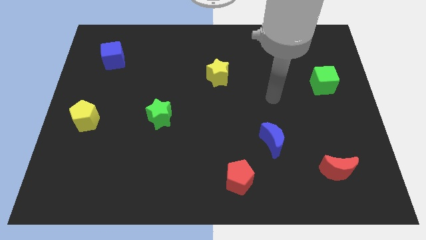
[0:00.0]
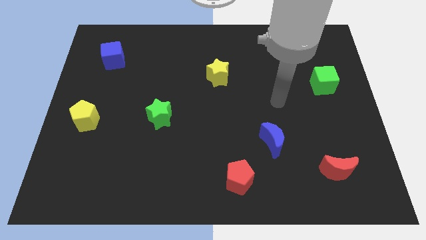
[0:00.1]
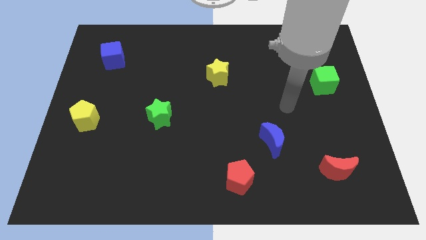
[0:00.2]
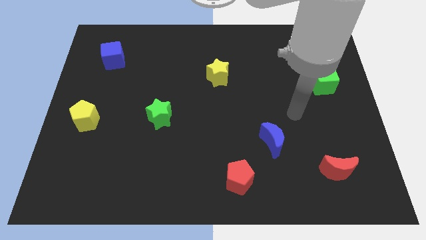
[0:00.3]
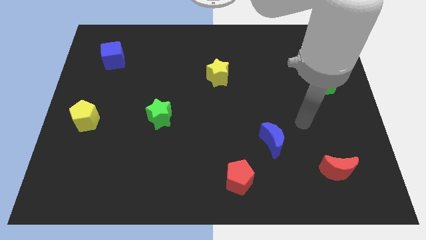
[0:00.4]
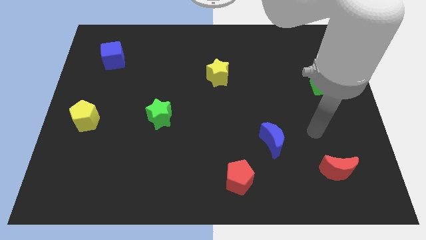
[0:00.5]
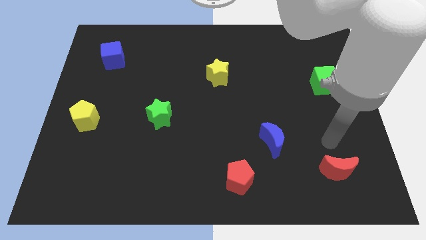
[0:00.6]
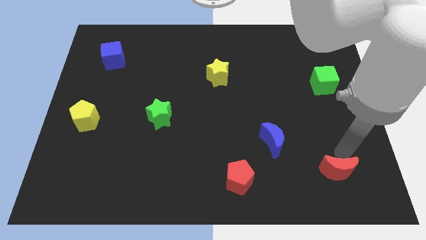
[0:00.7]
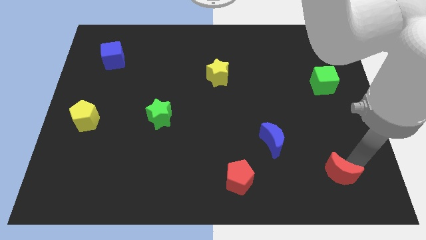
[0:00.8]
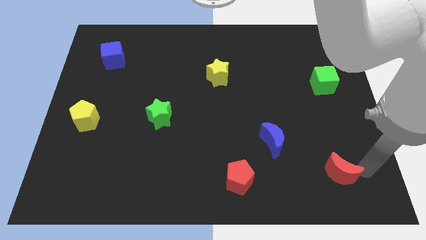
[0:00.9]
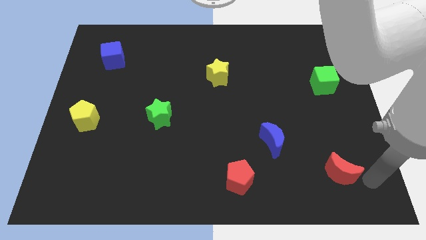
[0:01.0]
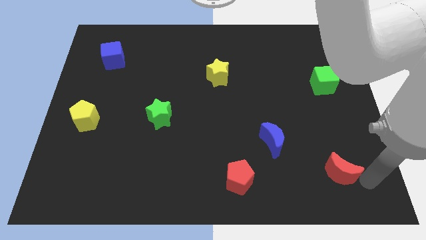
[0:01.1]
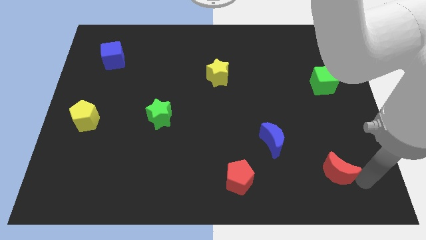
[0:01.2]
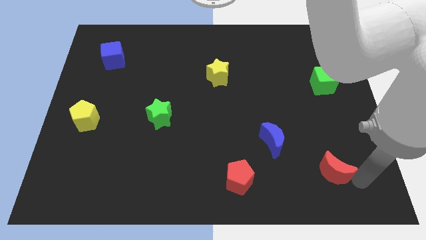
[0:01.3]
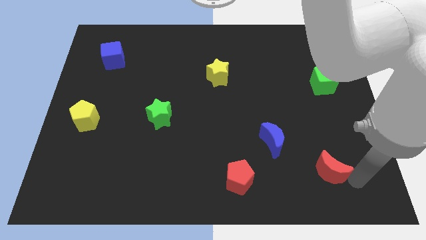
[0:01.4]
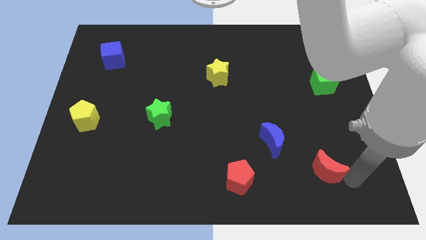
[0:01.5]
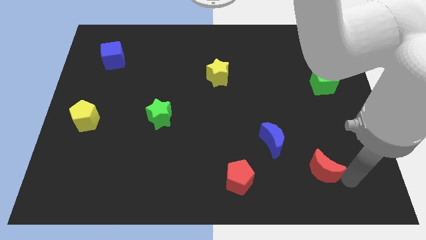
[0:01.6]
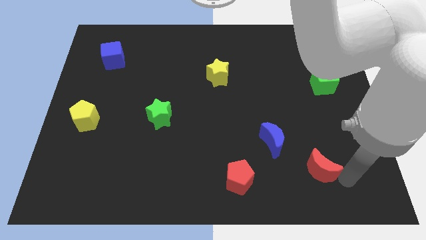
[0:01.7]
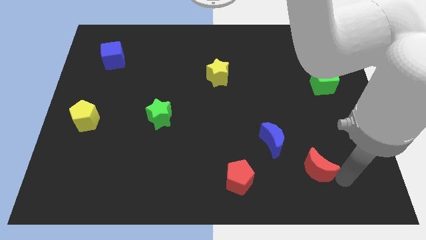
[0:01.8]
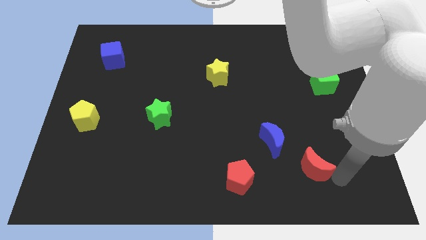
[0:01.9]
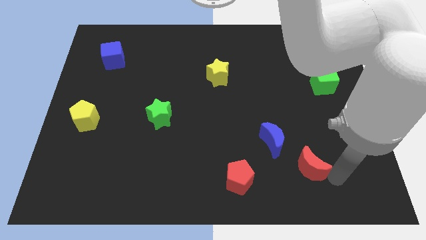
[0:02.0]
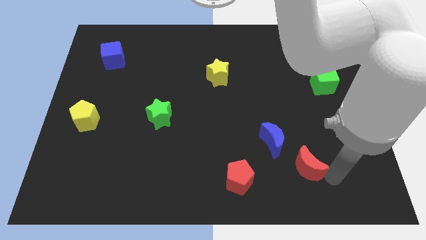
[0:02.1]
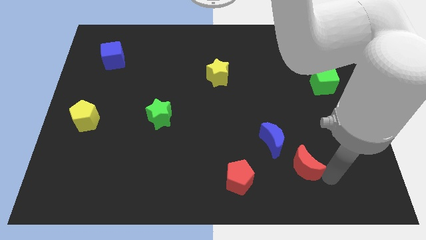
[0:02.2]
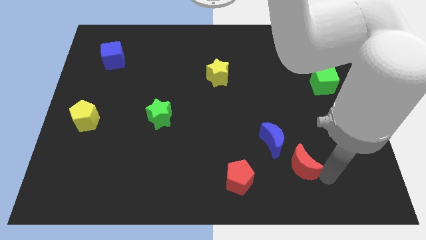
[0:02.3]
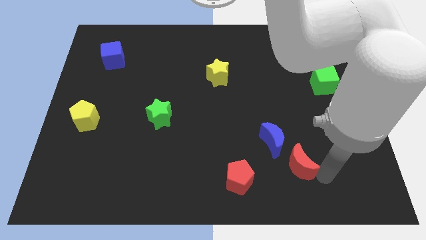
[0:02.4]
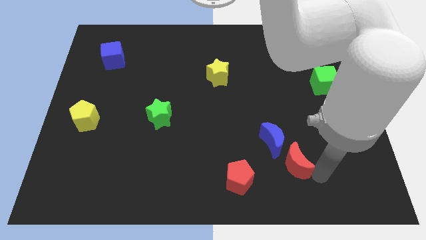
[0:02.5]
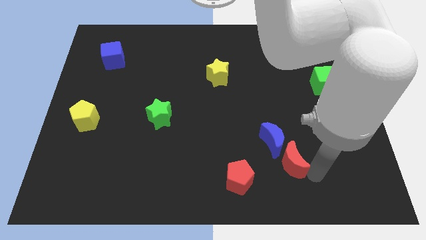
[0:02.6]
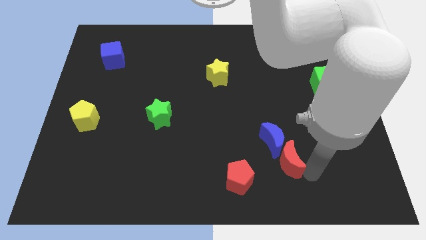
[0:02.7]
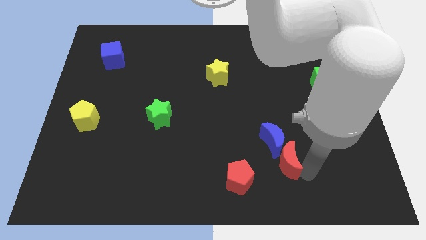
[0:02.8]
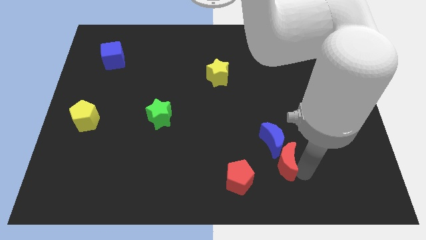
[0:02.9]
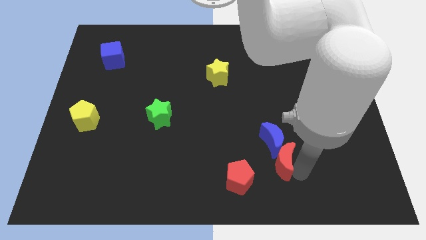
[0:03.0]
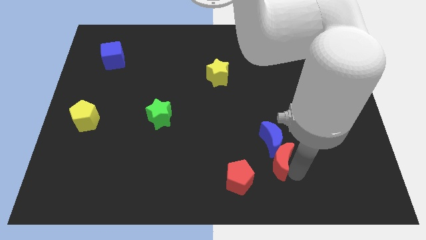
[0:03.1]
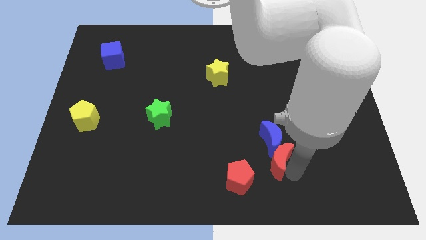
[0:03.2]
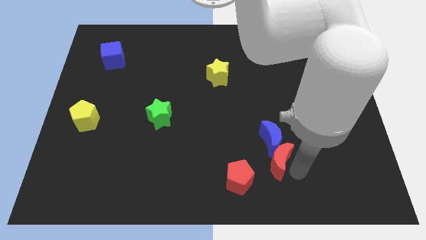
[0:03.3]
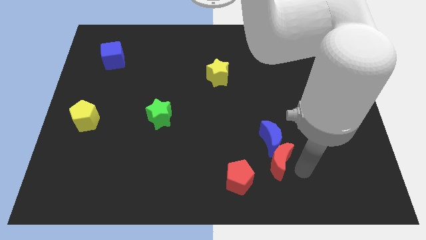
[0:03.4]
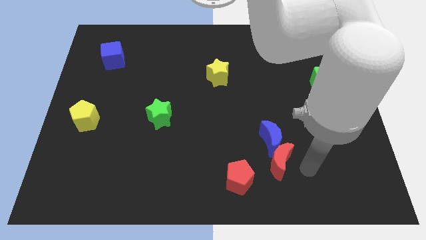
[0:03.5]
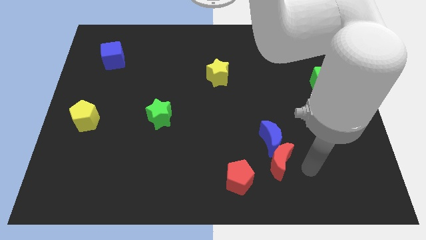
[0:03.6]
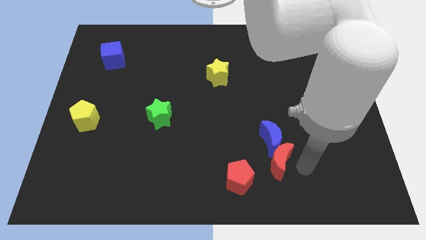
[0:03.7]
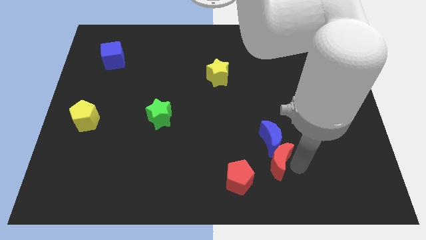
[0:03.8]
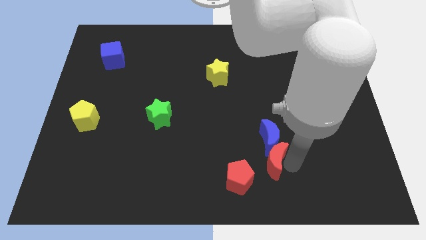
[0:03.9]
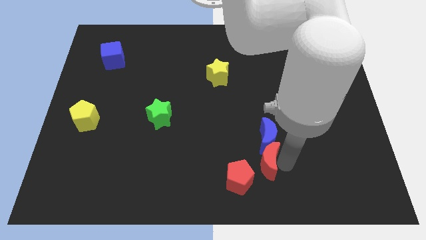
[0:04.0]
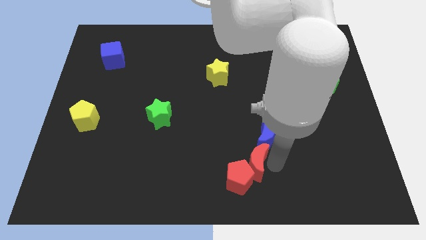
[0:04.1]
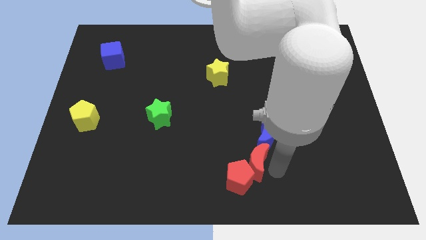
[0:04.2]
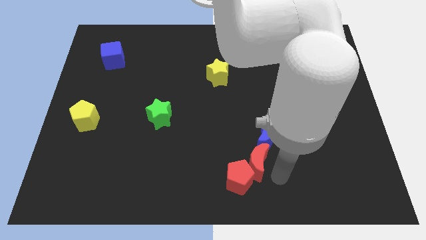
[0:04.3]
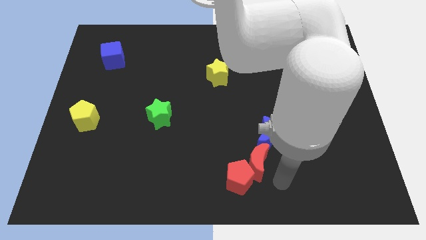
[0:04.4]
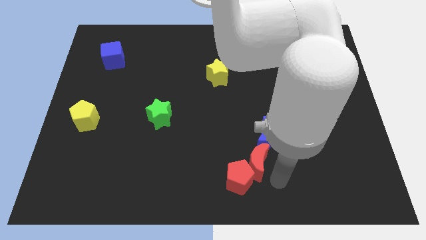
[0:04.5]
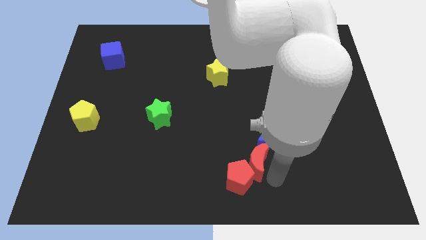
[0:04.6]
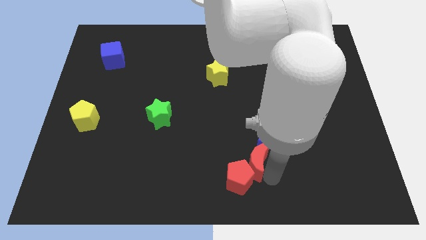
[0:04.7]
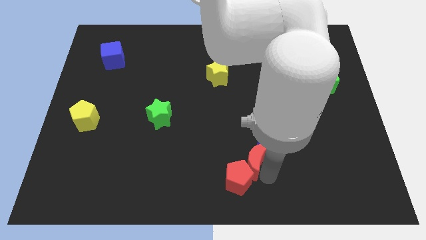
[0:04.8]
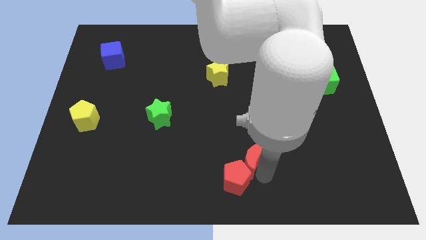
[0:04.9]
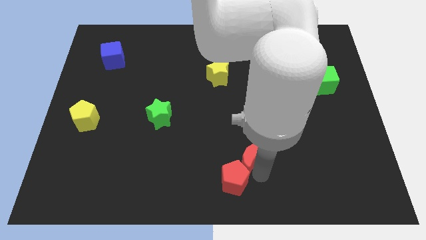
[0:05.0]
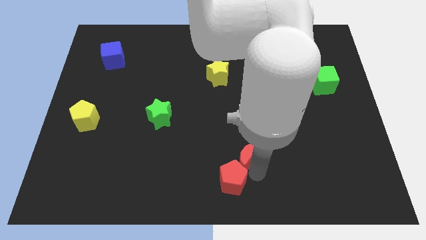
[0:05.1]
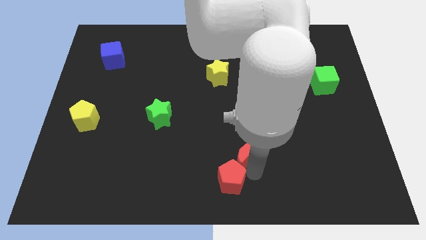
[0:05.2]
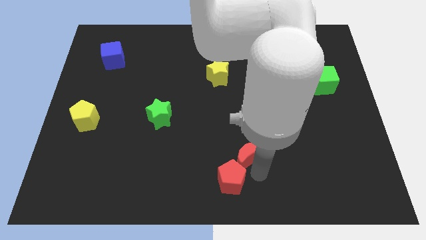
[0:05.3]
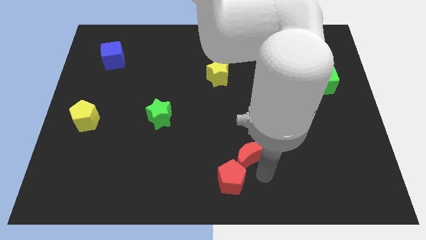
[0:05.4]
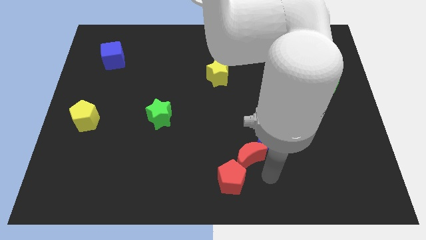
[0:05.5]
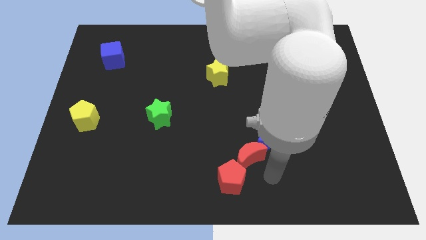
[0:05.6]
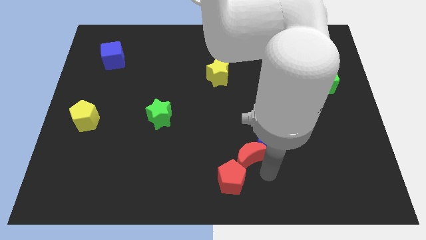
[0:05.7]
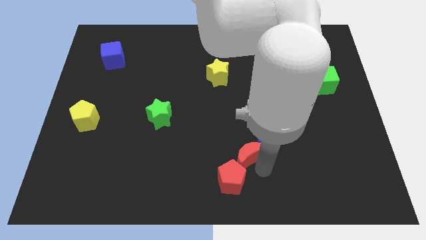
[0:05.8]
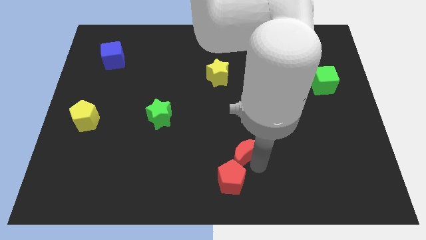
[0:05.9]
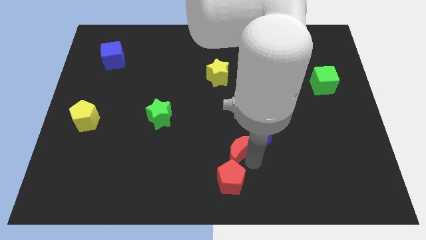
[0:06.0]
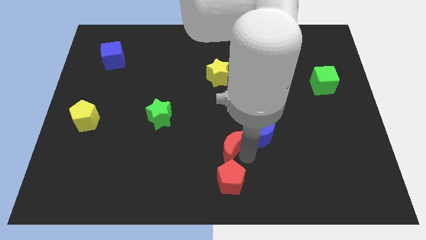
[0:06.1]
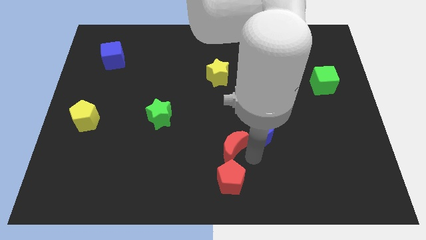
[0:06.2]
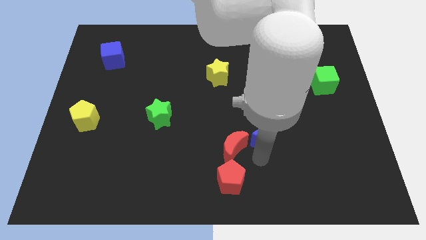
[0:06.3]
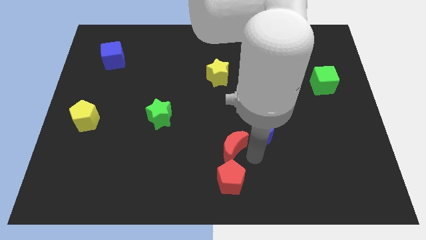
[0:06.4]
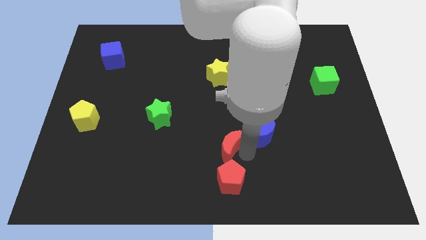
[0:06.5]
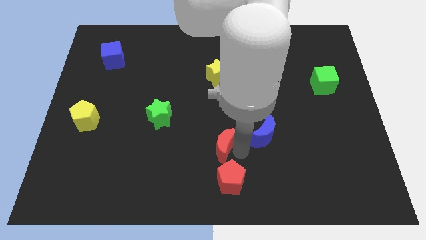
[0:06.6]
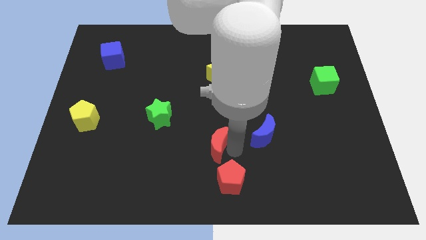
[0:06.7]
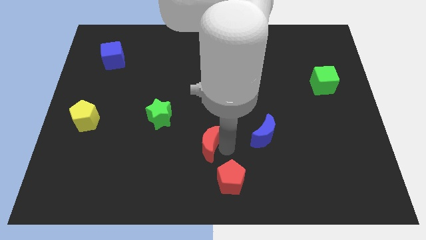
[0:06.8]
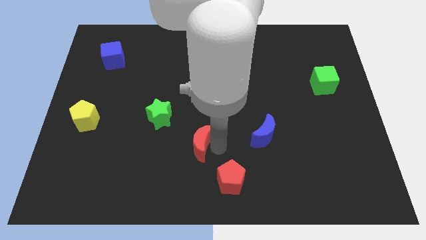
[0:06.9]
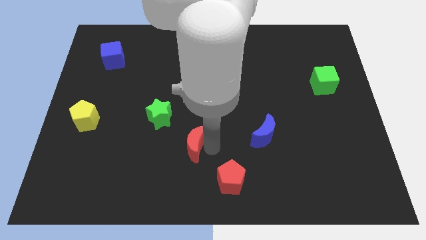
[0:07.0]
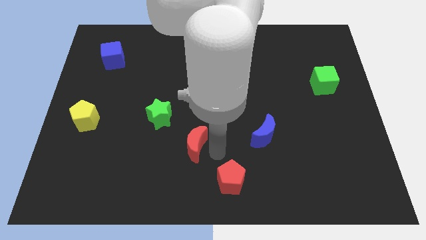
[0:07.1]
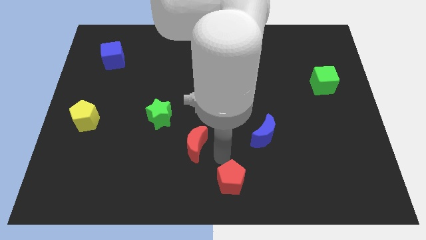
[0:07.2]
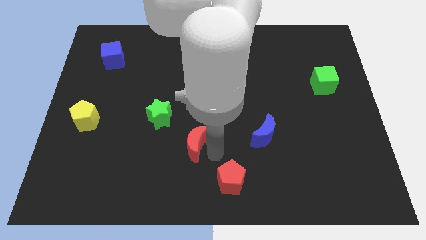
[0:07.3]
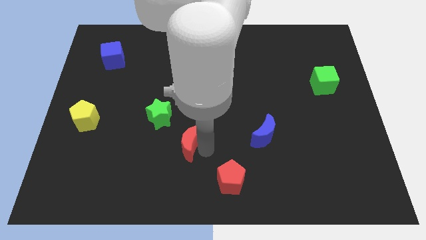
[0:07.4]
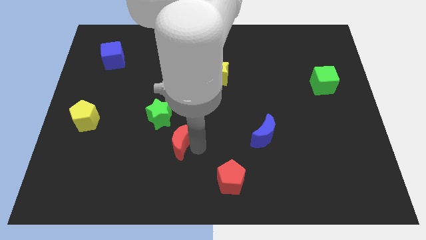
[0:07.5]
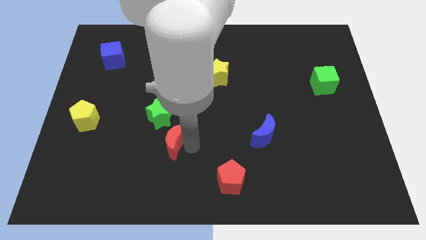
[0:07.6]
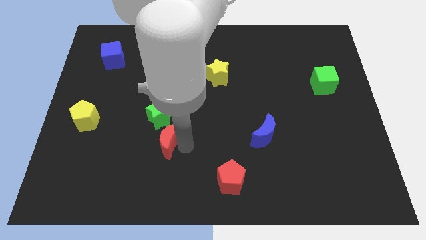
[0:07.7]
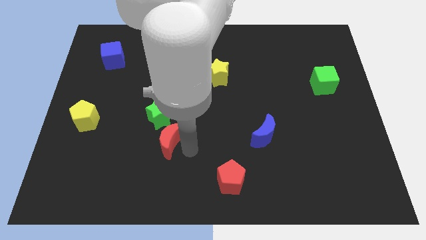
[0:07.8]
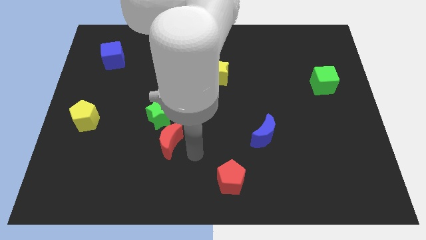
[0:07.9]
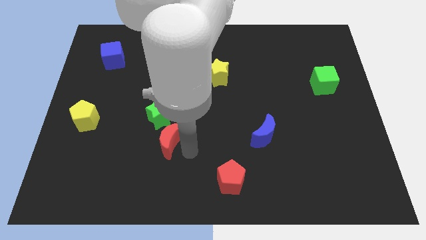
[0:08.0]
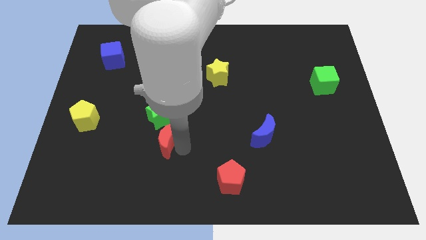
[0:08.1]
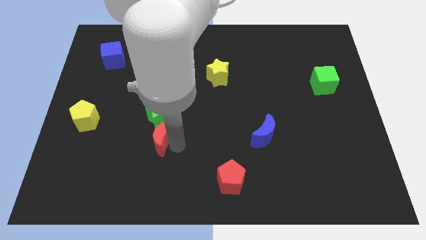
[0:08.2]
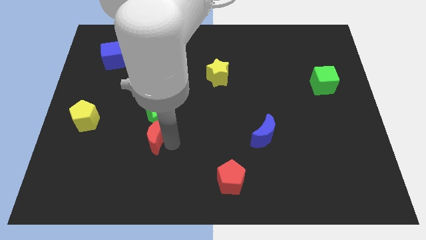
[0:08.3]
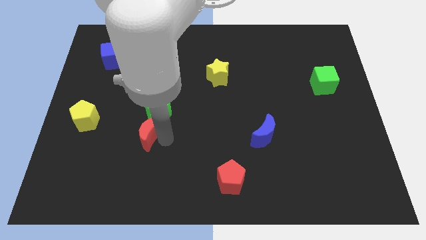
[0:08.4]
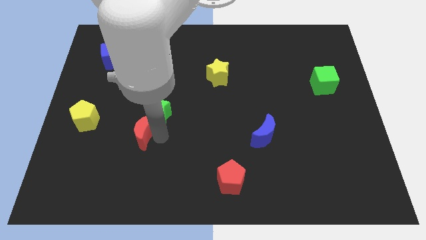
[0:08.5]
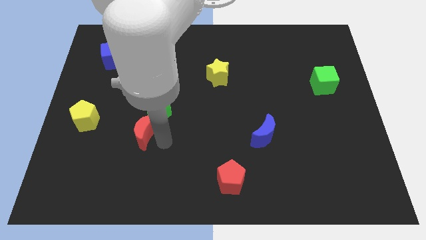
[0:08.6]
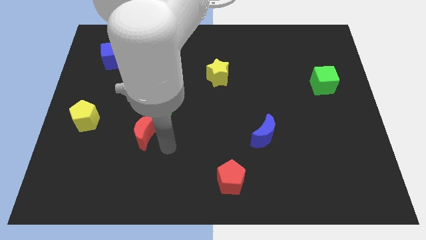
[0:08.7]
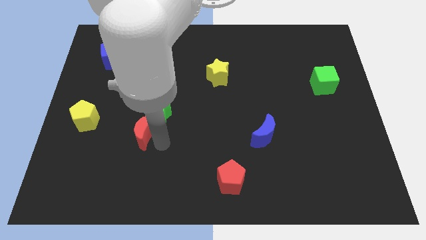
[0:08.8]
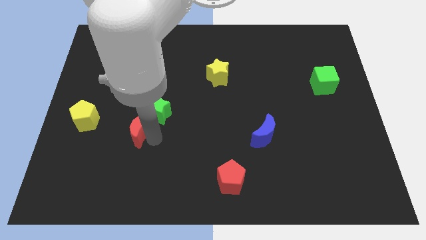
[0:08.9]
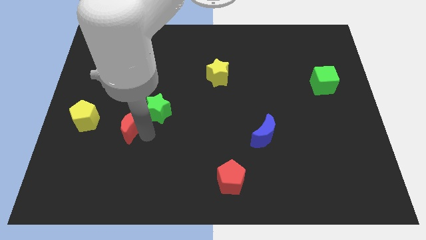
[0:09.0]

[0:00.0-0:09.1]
move the red moon to the left of the green star

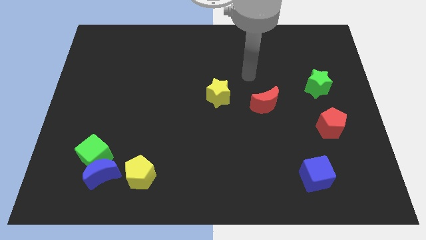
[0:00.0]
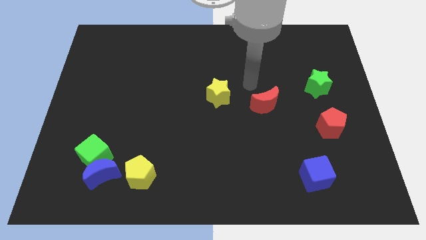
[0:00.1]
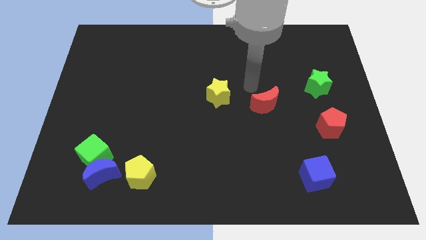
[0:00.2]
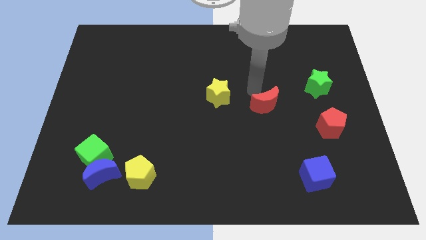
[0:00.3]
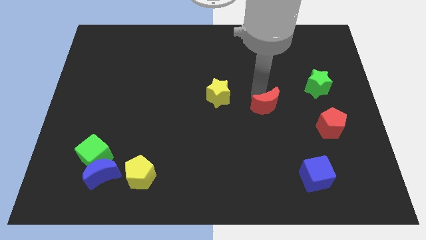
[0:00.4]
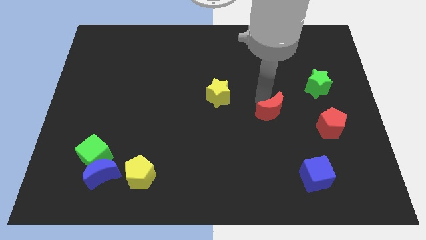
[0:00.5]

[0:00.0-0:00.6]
push the red moon just left of the red pentagon
